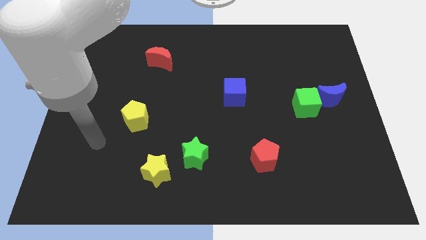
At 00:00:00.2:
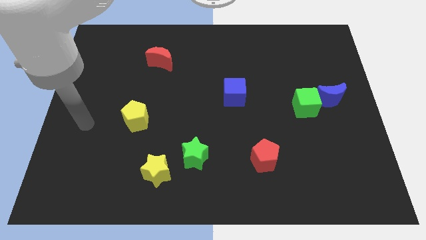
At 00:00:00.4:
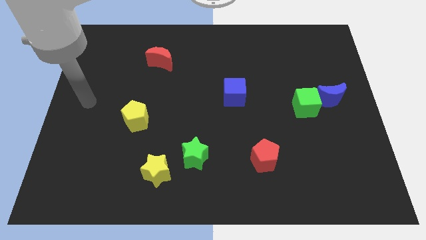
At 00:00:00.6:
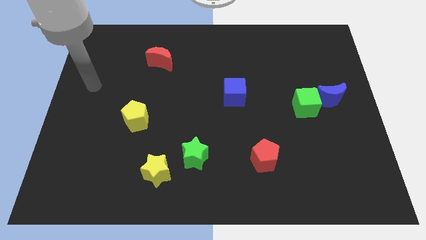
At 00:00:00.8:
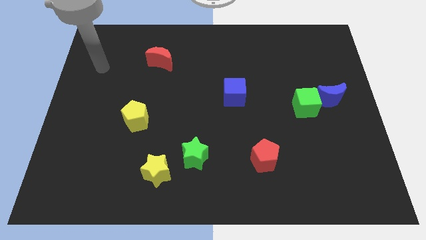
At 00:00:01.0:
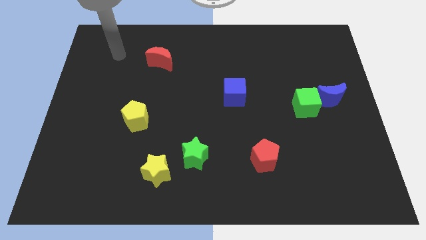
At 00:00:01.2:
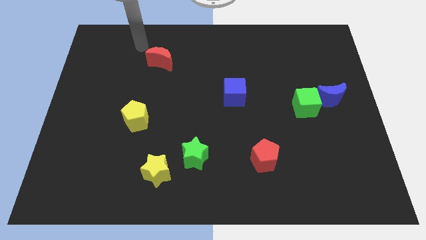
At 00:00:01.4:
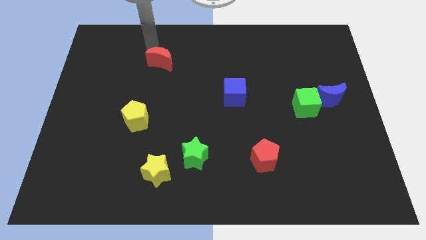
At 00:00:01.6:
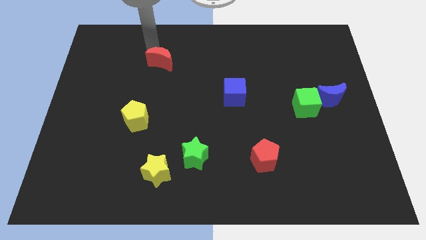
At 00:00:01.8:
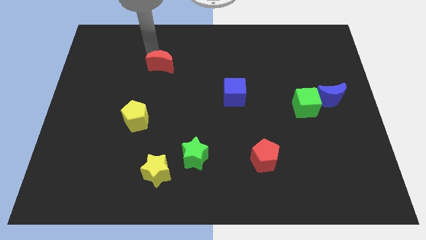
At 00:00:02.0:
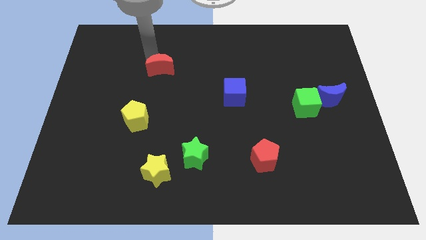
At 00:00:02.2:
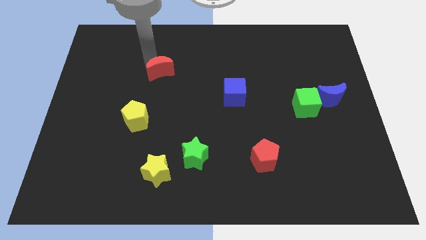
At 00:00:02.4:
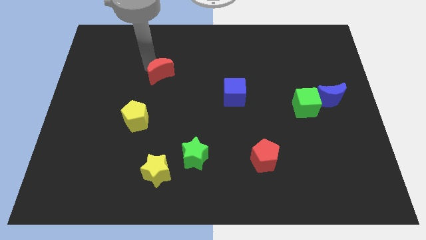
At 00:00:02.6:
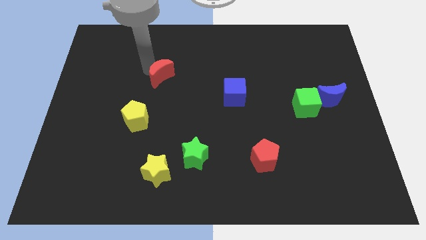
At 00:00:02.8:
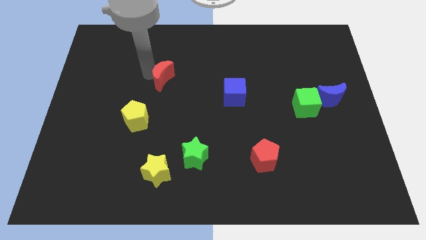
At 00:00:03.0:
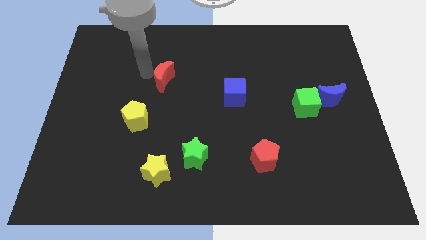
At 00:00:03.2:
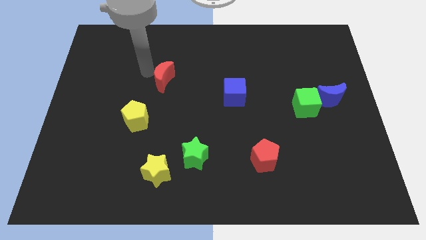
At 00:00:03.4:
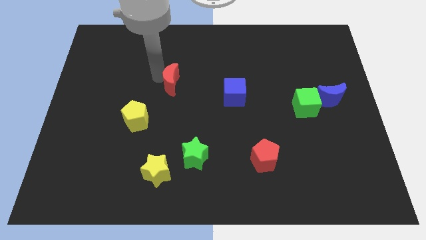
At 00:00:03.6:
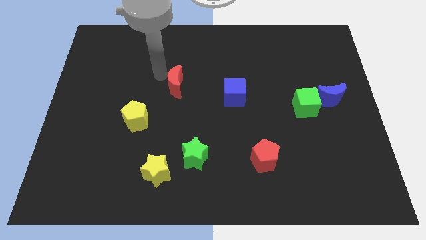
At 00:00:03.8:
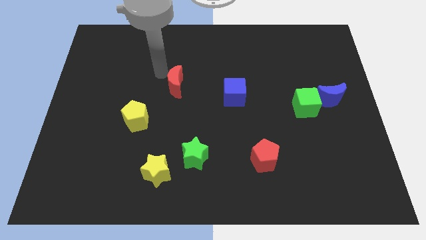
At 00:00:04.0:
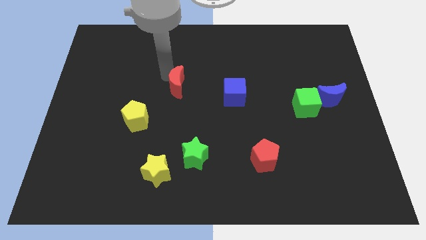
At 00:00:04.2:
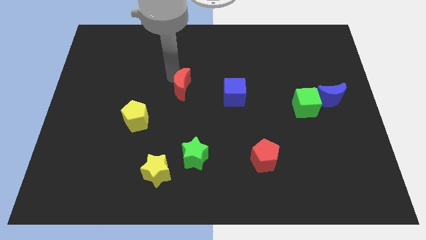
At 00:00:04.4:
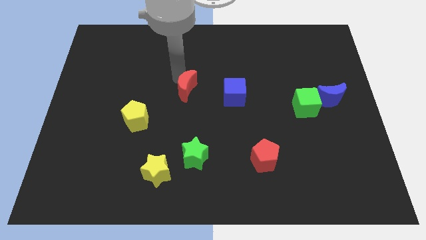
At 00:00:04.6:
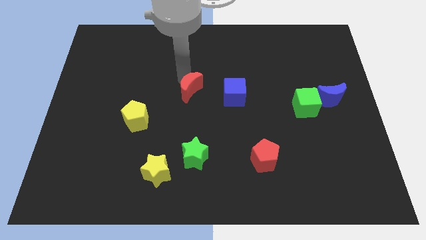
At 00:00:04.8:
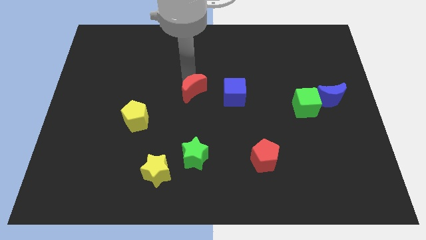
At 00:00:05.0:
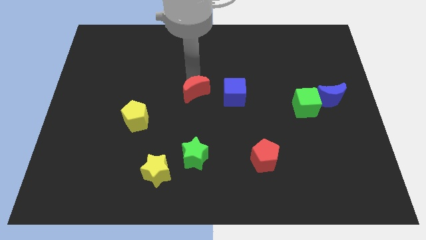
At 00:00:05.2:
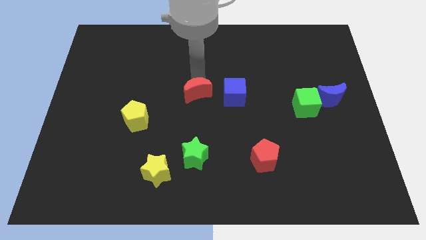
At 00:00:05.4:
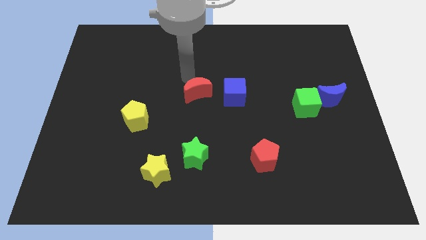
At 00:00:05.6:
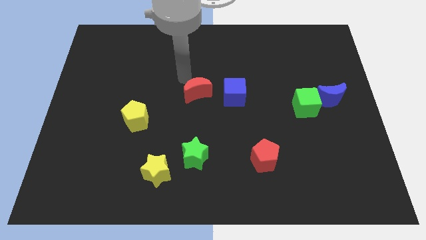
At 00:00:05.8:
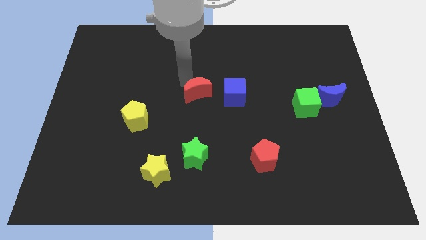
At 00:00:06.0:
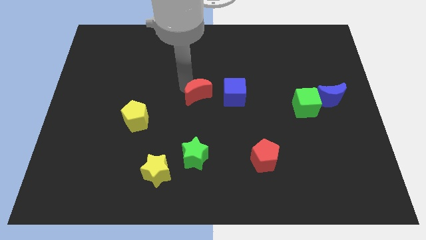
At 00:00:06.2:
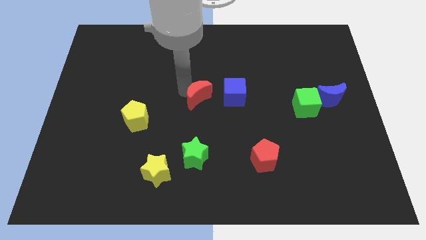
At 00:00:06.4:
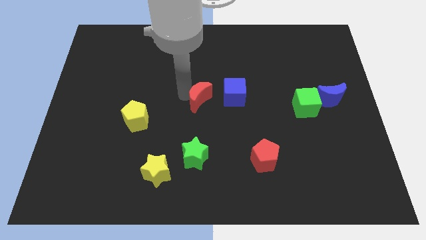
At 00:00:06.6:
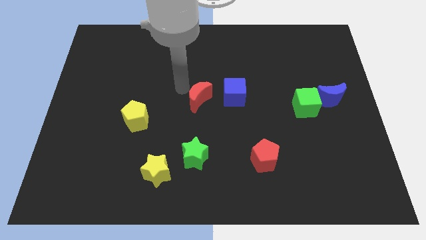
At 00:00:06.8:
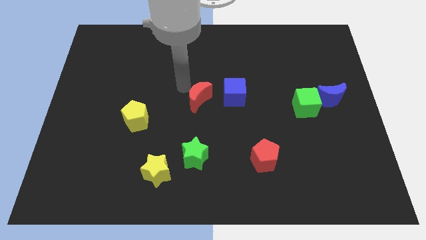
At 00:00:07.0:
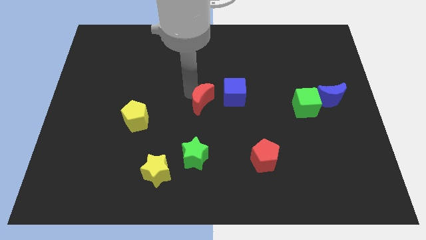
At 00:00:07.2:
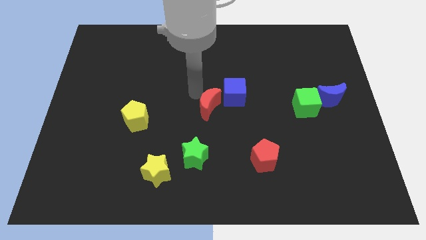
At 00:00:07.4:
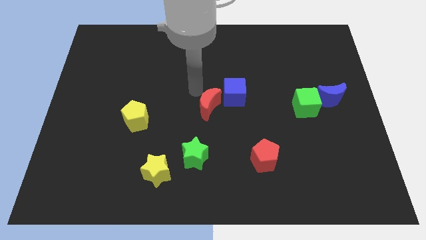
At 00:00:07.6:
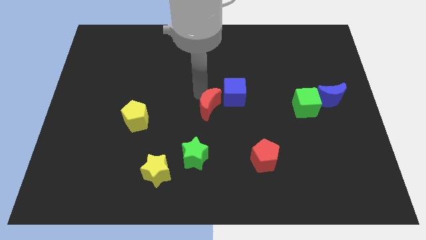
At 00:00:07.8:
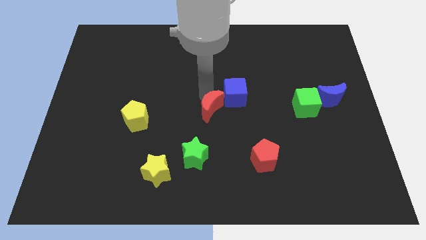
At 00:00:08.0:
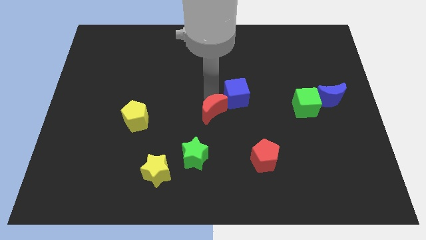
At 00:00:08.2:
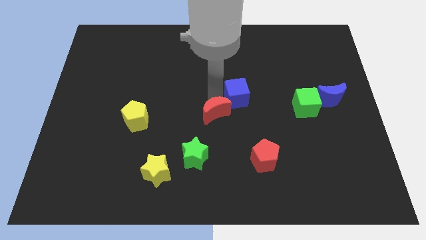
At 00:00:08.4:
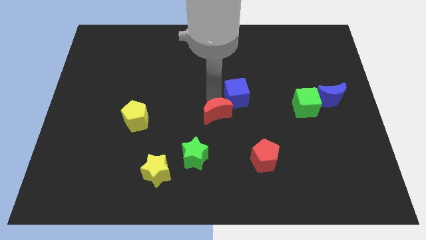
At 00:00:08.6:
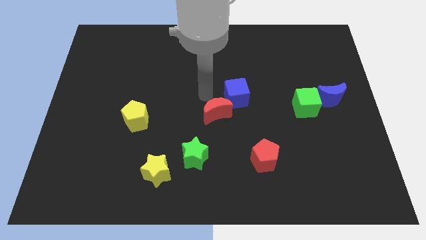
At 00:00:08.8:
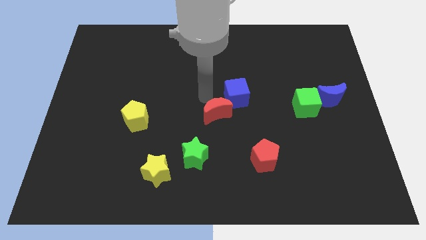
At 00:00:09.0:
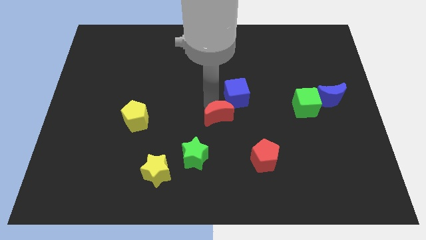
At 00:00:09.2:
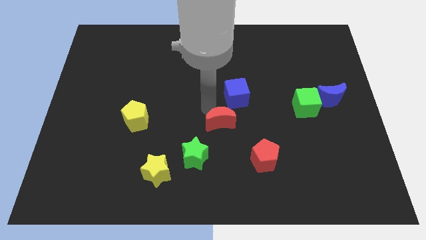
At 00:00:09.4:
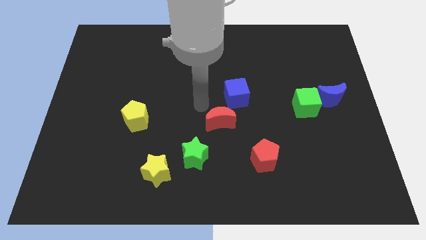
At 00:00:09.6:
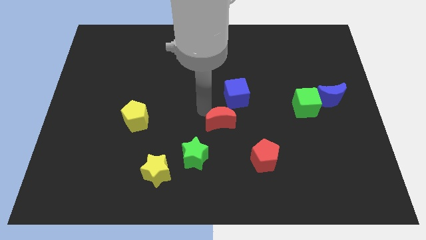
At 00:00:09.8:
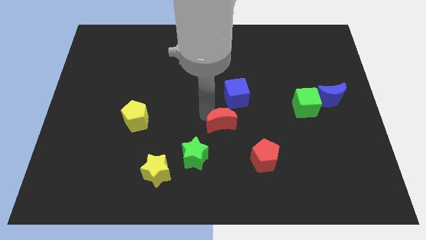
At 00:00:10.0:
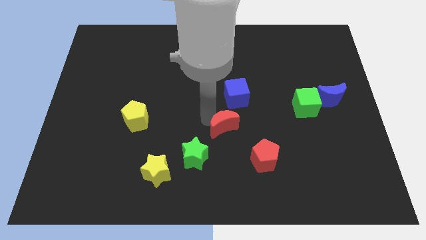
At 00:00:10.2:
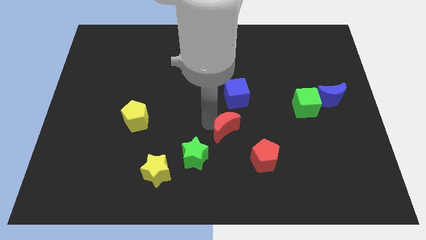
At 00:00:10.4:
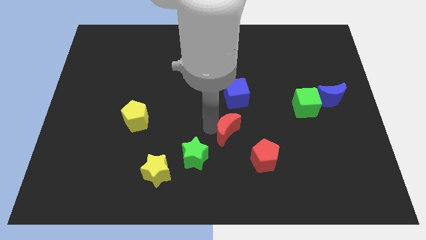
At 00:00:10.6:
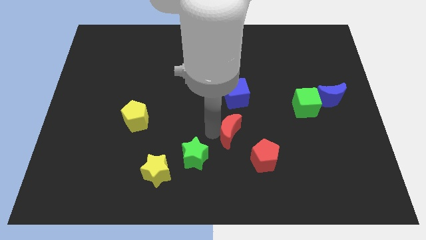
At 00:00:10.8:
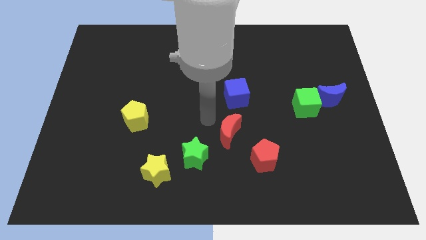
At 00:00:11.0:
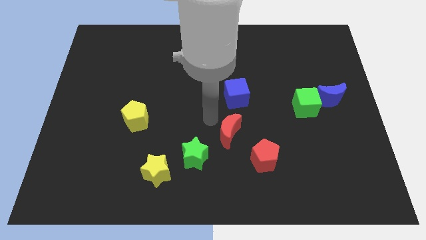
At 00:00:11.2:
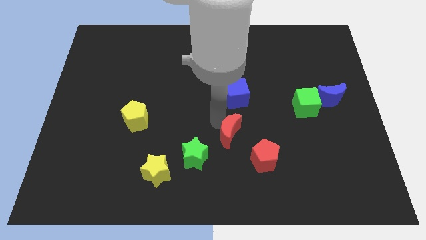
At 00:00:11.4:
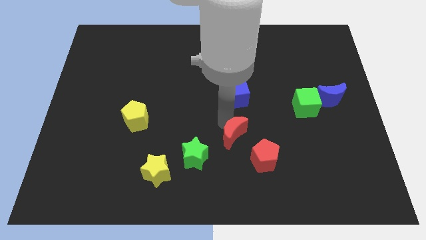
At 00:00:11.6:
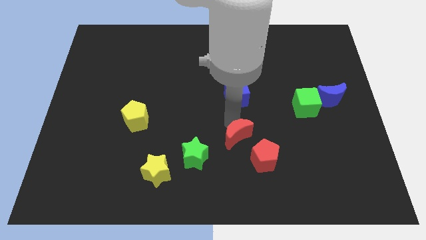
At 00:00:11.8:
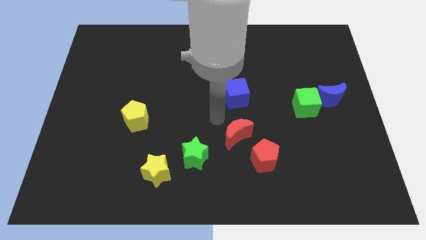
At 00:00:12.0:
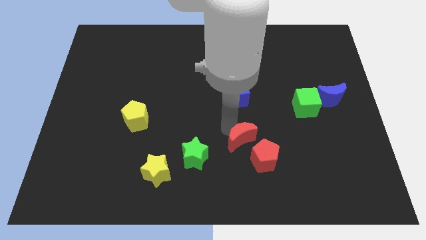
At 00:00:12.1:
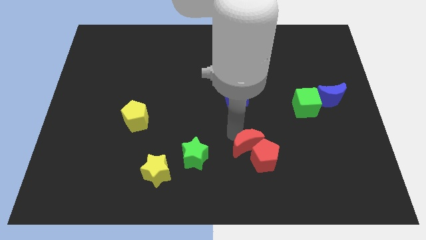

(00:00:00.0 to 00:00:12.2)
slide the red moon to the red pentagon

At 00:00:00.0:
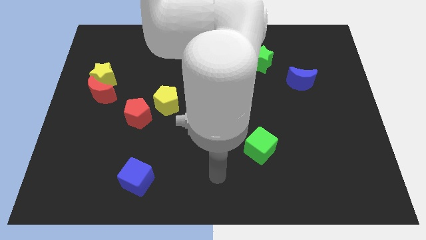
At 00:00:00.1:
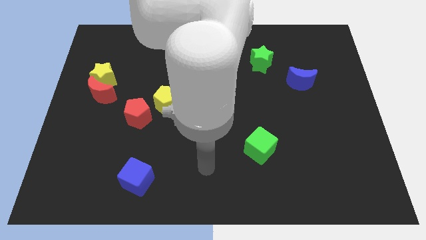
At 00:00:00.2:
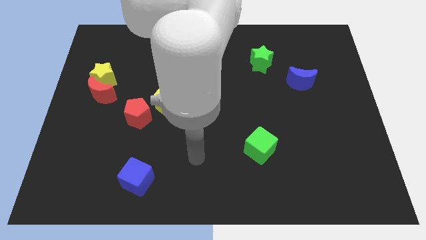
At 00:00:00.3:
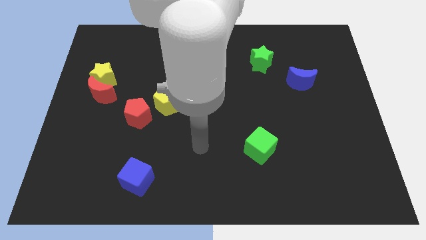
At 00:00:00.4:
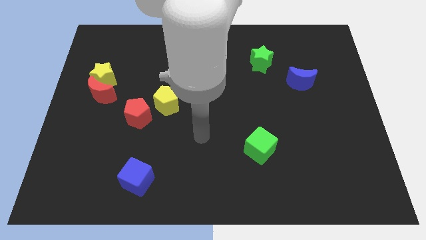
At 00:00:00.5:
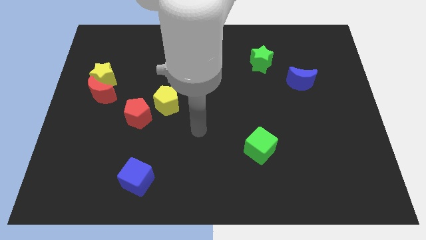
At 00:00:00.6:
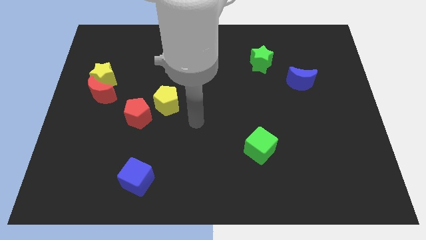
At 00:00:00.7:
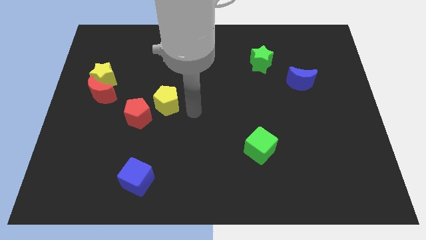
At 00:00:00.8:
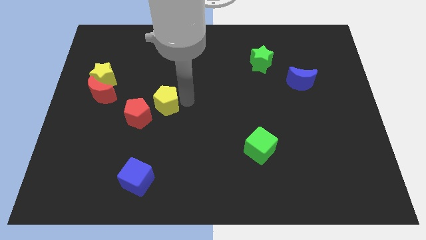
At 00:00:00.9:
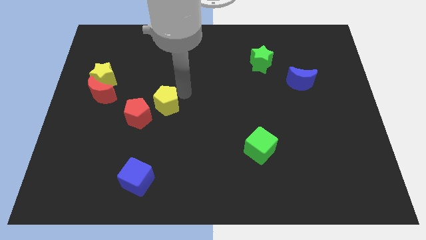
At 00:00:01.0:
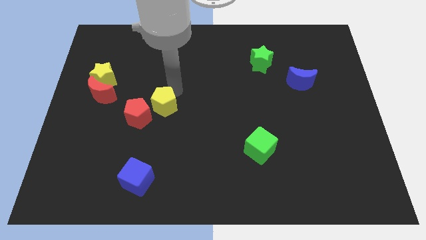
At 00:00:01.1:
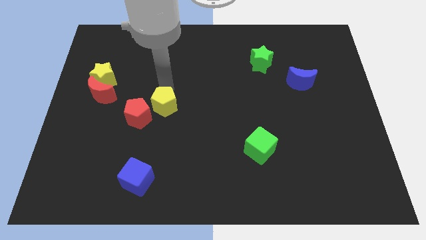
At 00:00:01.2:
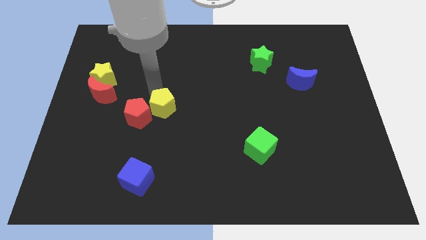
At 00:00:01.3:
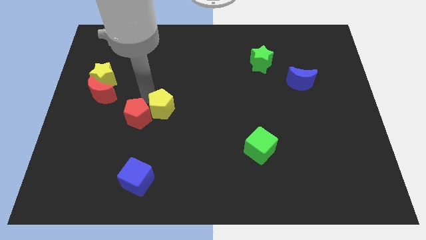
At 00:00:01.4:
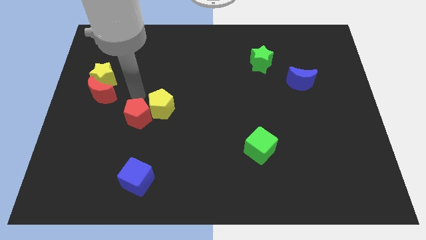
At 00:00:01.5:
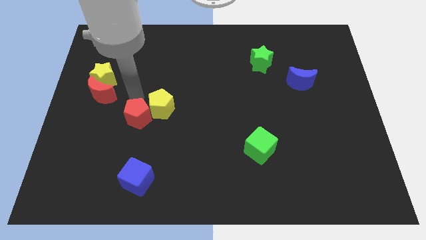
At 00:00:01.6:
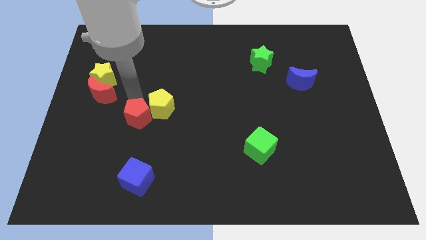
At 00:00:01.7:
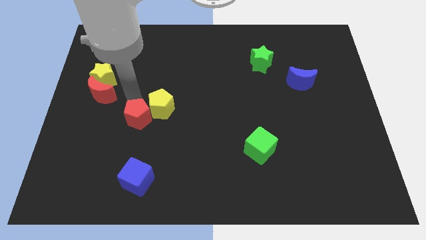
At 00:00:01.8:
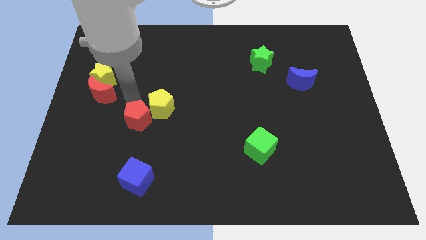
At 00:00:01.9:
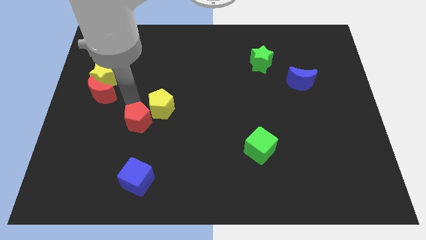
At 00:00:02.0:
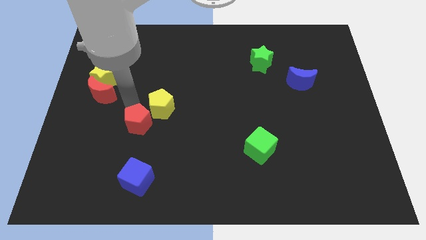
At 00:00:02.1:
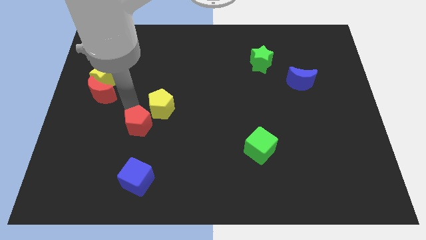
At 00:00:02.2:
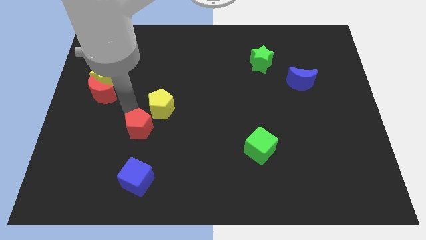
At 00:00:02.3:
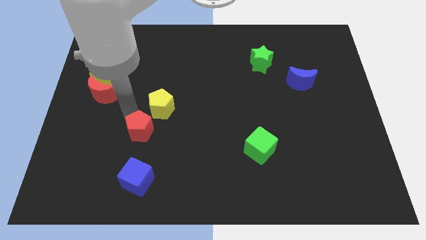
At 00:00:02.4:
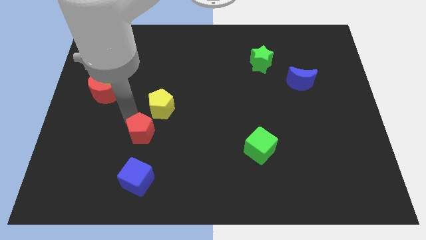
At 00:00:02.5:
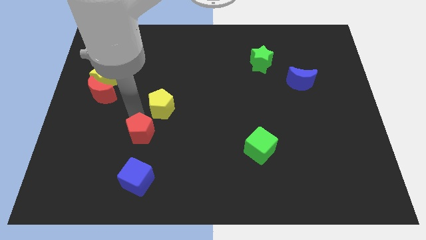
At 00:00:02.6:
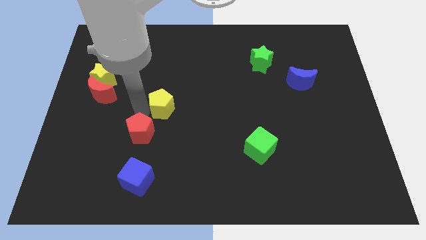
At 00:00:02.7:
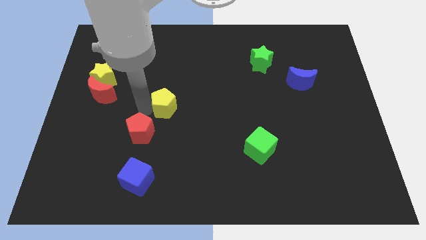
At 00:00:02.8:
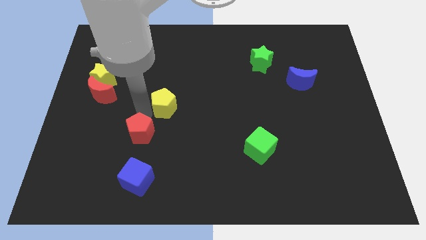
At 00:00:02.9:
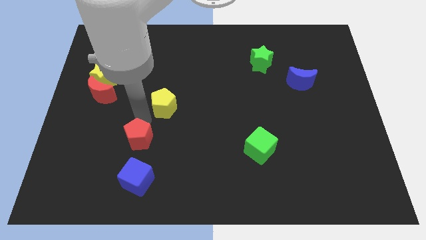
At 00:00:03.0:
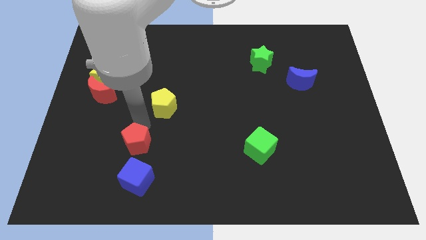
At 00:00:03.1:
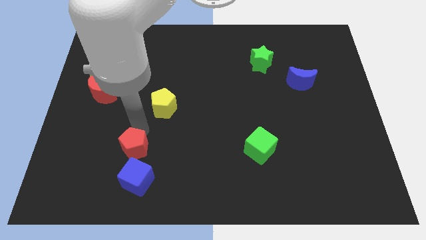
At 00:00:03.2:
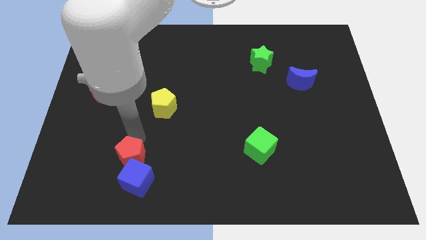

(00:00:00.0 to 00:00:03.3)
slide the red pentagon towards the blue cube
